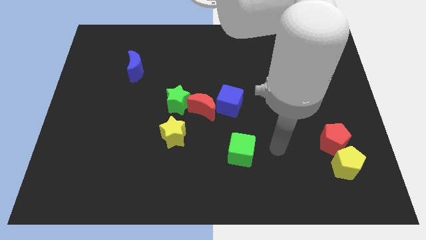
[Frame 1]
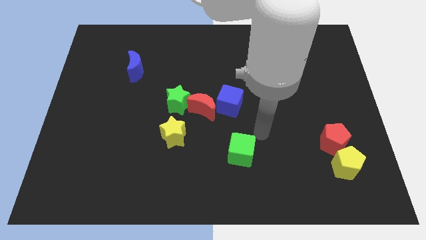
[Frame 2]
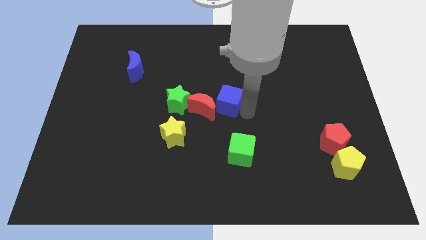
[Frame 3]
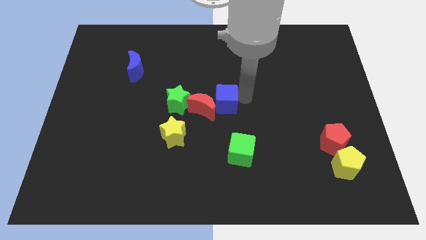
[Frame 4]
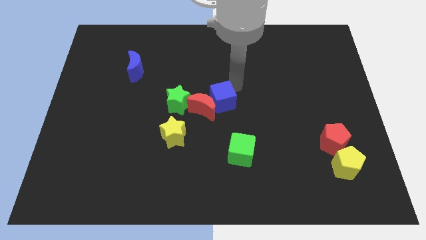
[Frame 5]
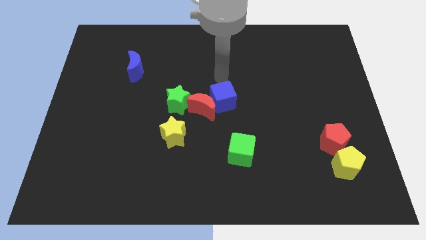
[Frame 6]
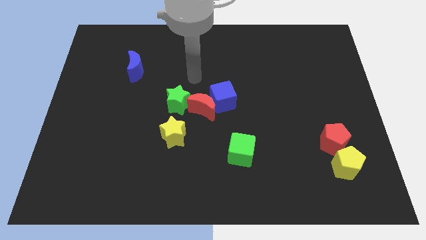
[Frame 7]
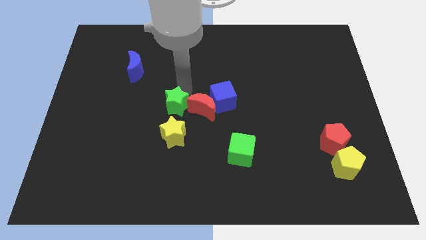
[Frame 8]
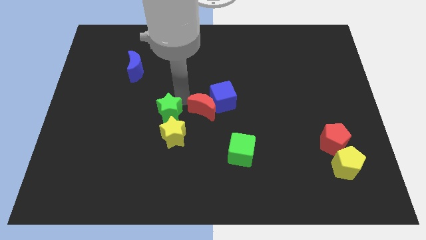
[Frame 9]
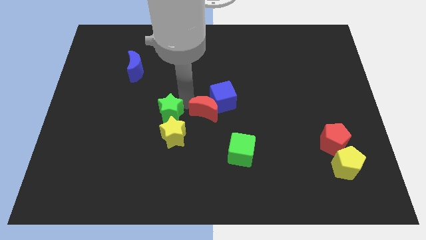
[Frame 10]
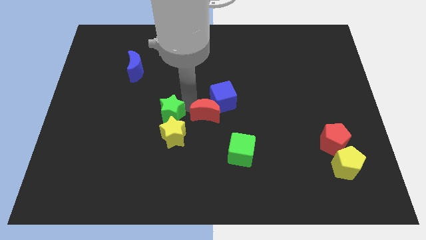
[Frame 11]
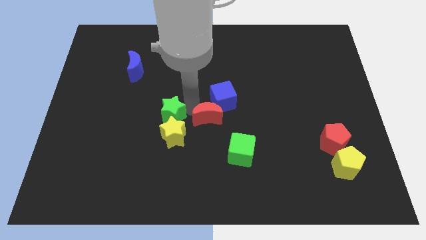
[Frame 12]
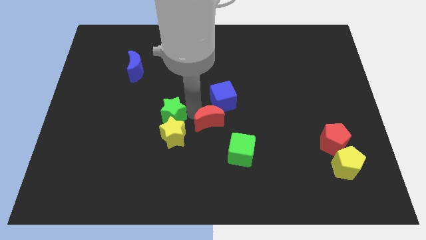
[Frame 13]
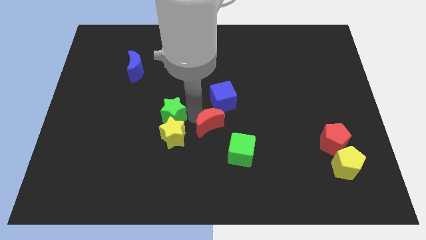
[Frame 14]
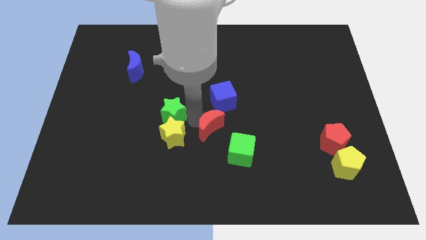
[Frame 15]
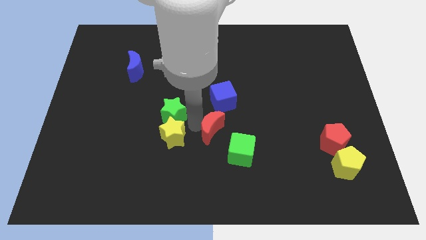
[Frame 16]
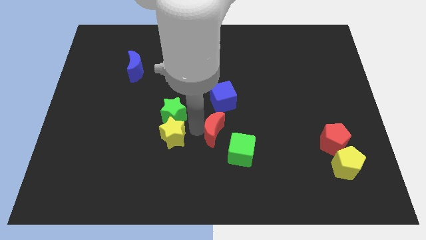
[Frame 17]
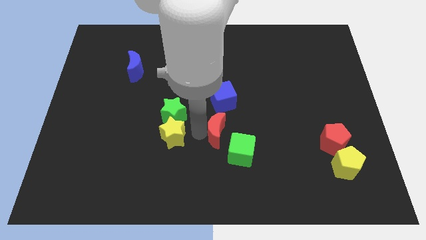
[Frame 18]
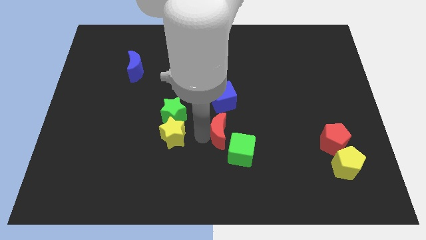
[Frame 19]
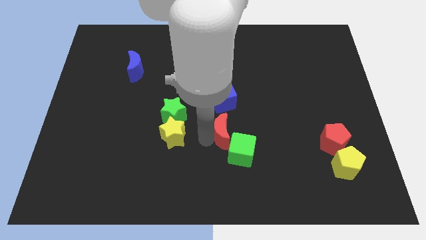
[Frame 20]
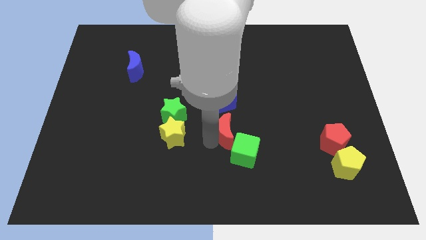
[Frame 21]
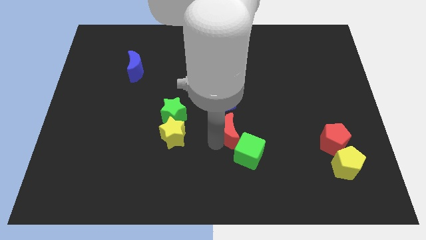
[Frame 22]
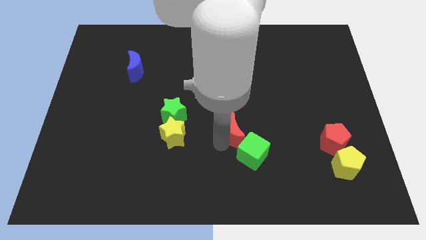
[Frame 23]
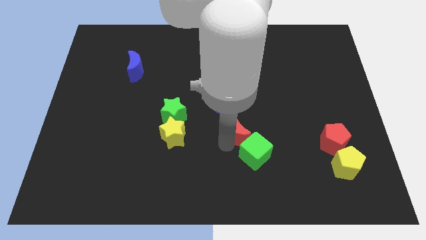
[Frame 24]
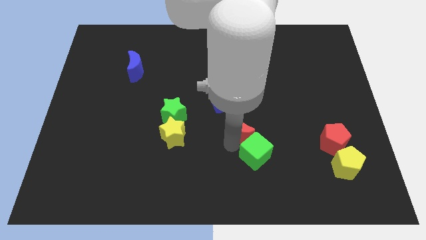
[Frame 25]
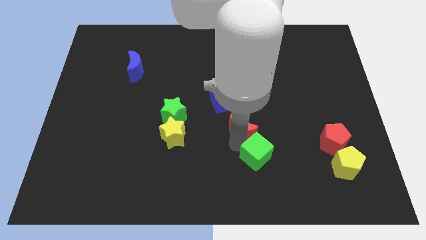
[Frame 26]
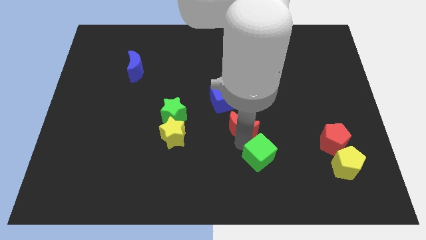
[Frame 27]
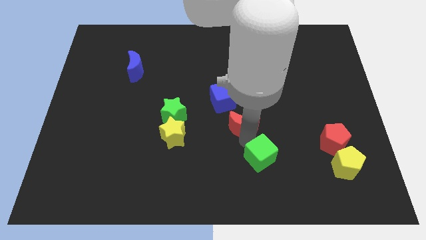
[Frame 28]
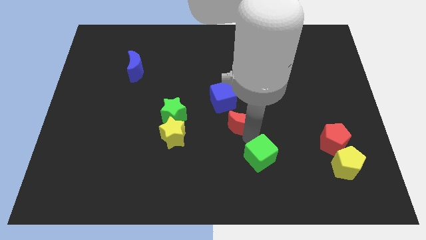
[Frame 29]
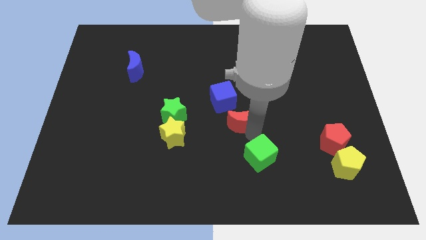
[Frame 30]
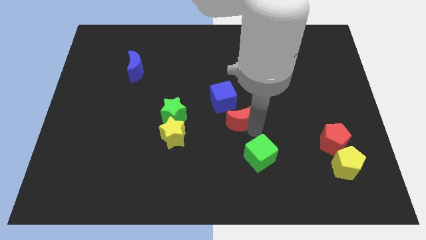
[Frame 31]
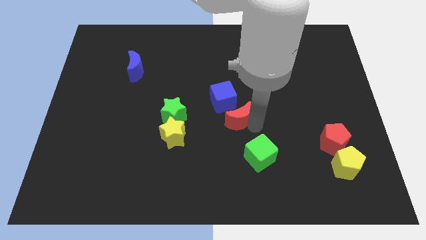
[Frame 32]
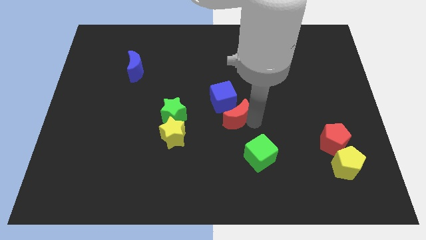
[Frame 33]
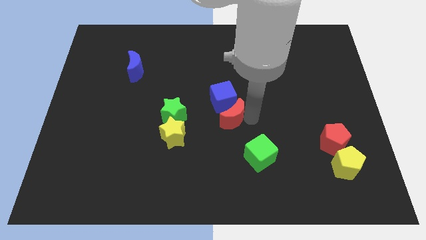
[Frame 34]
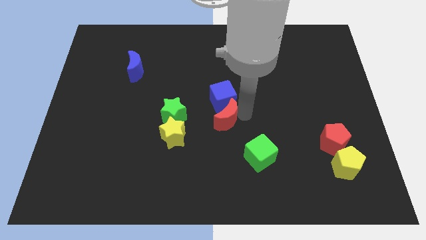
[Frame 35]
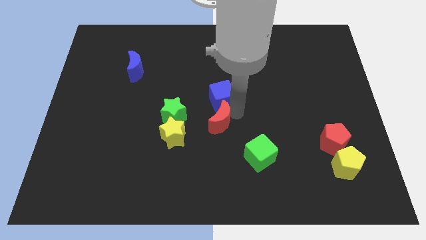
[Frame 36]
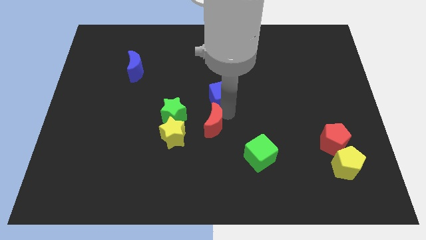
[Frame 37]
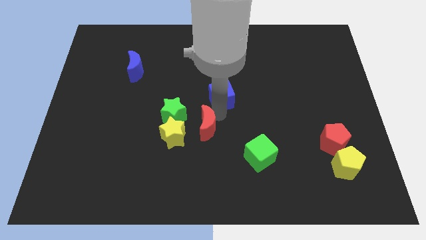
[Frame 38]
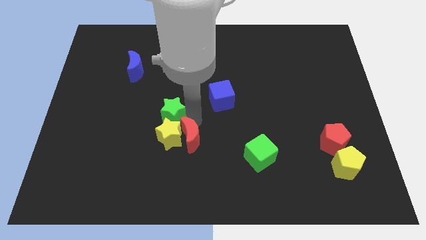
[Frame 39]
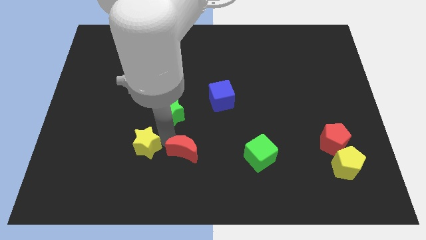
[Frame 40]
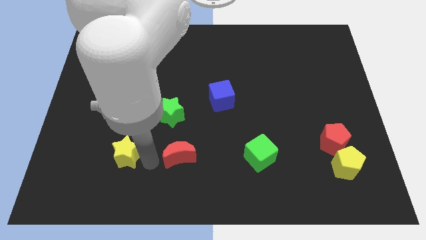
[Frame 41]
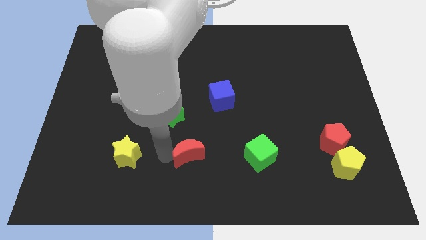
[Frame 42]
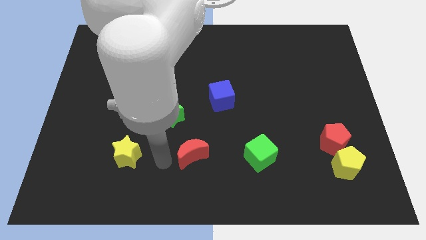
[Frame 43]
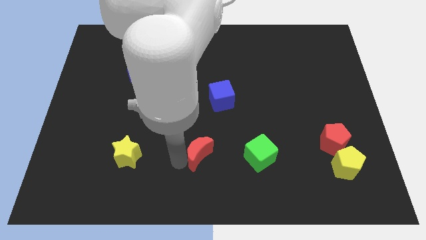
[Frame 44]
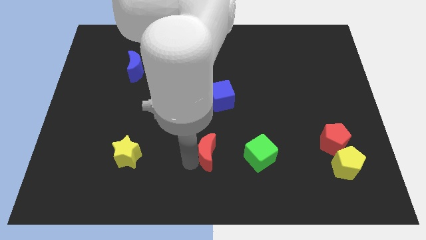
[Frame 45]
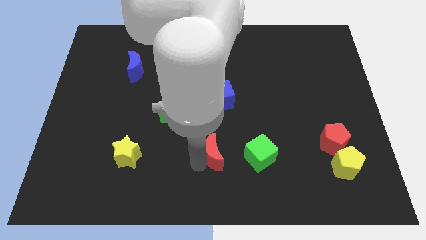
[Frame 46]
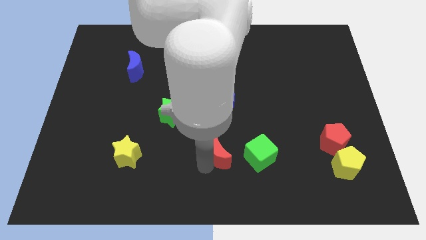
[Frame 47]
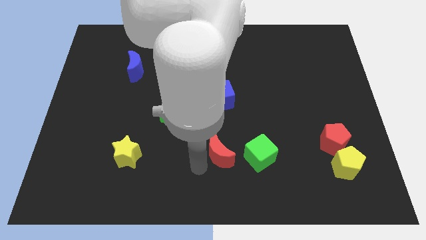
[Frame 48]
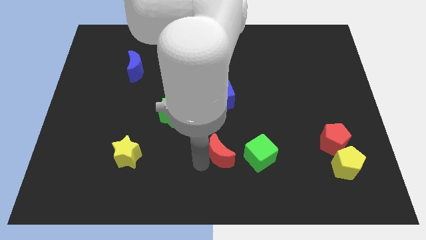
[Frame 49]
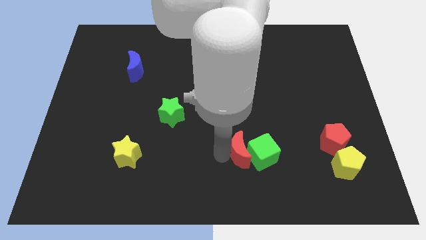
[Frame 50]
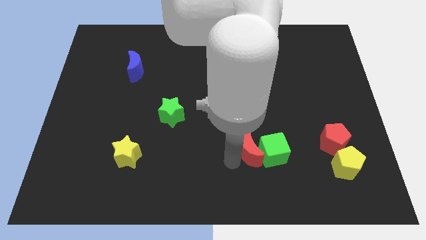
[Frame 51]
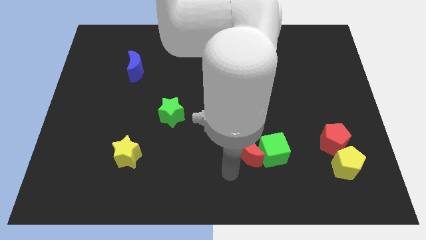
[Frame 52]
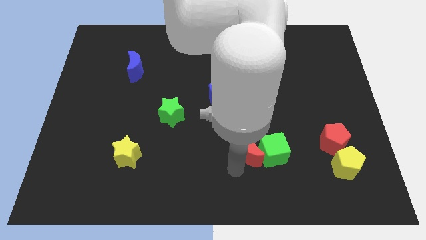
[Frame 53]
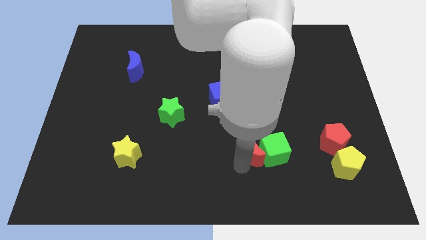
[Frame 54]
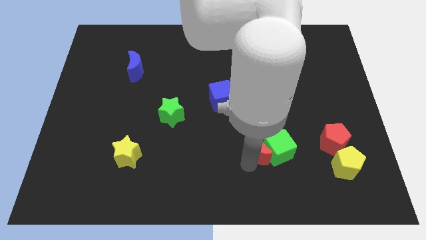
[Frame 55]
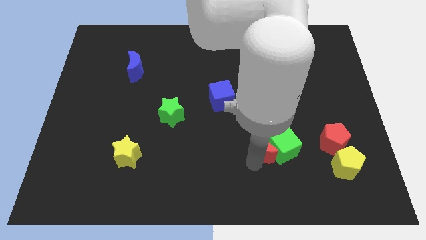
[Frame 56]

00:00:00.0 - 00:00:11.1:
move the red moon to the left of the red pentagon

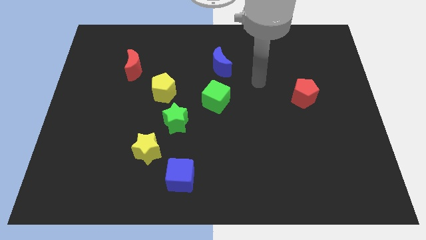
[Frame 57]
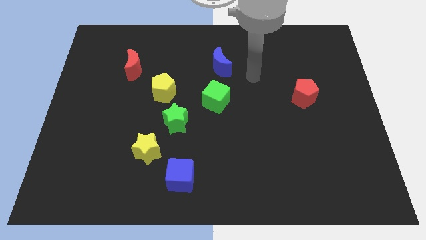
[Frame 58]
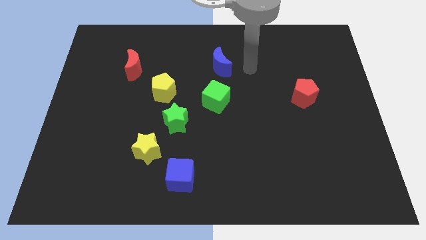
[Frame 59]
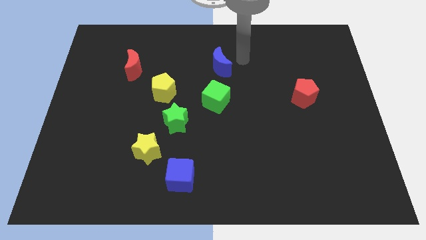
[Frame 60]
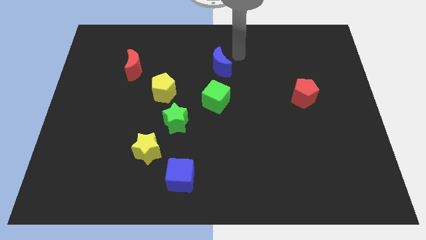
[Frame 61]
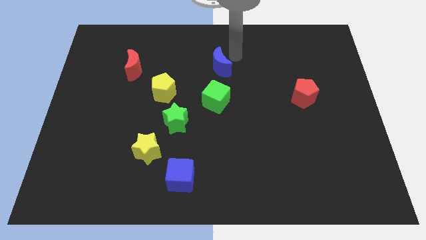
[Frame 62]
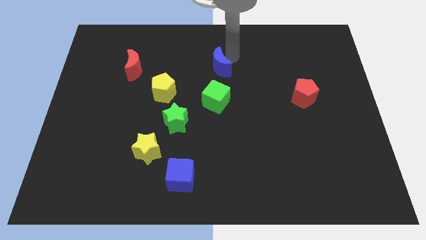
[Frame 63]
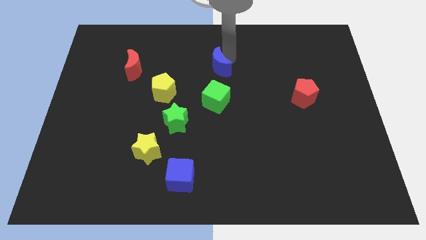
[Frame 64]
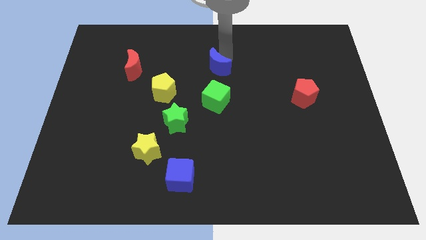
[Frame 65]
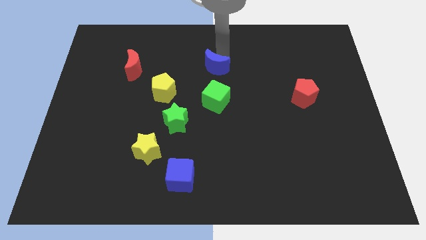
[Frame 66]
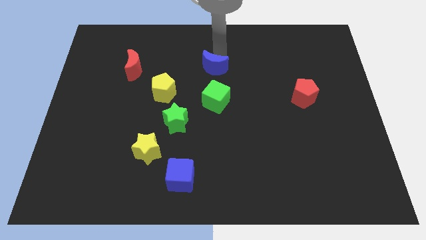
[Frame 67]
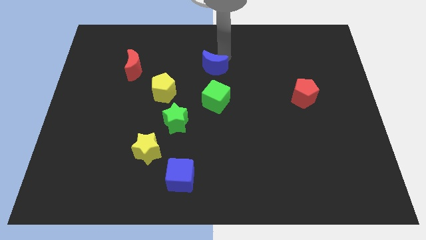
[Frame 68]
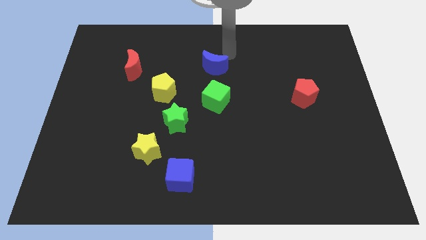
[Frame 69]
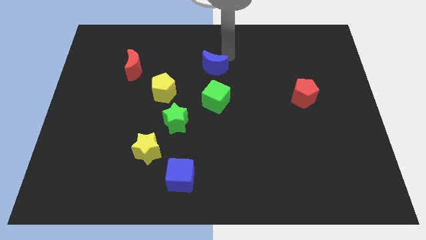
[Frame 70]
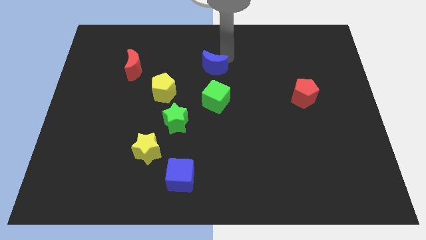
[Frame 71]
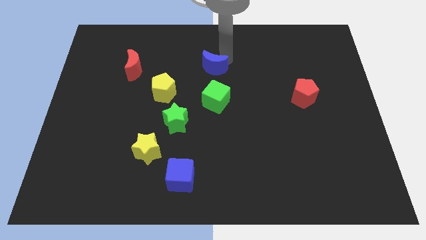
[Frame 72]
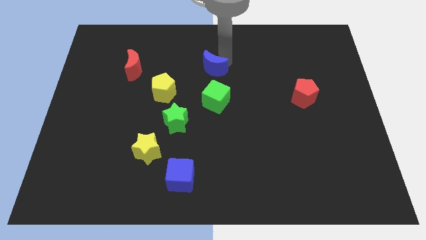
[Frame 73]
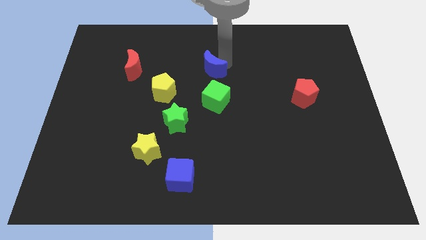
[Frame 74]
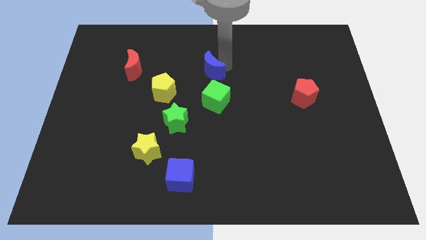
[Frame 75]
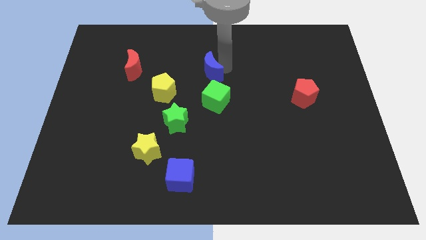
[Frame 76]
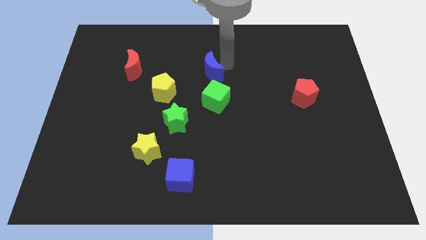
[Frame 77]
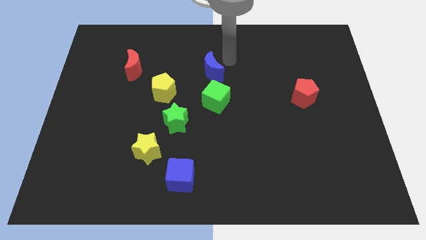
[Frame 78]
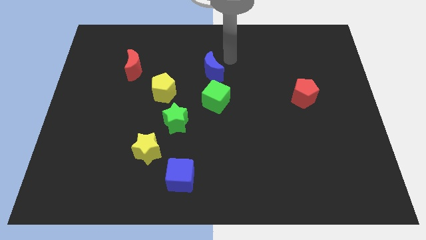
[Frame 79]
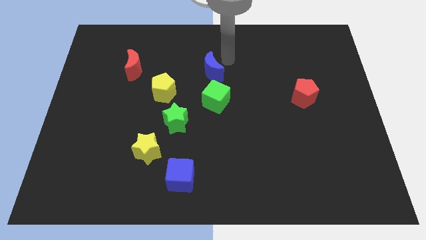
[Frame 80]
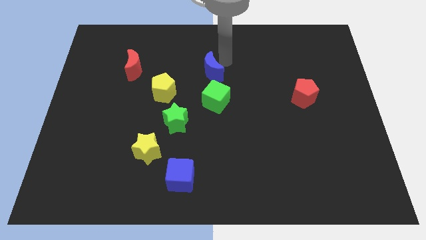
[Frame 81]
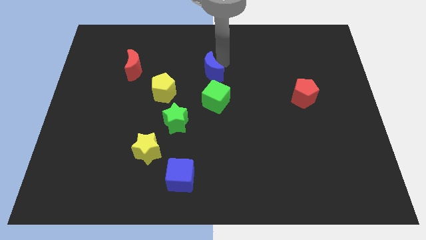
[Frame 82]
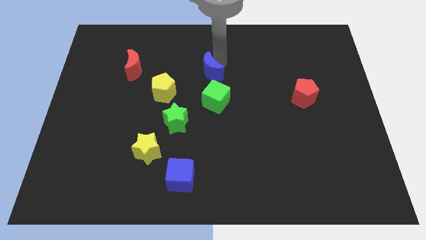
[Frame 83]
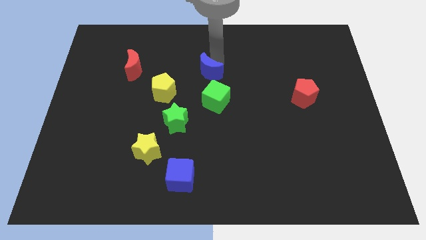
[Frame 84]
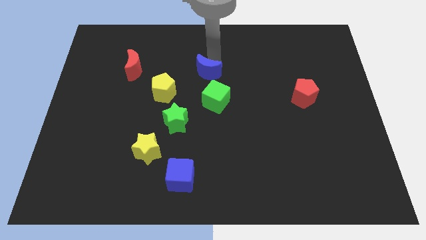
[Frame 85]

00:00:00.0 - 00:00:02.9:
slide the blue moon to the top left side of the green cube
